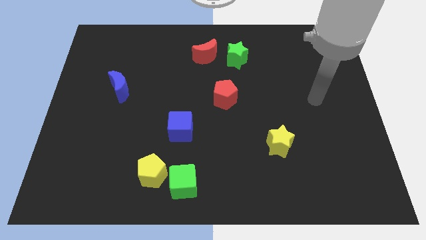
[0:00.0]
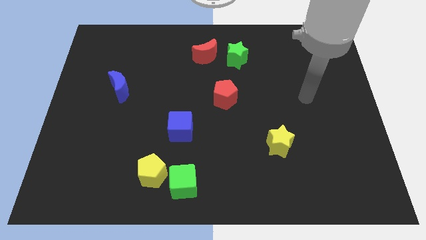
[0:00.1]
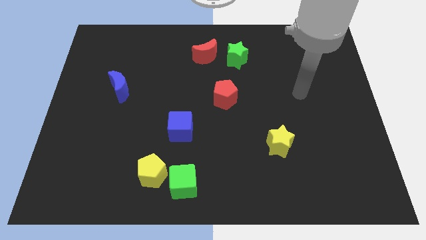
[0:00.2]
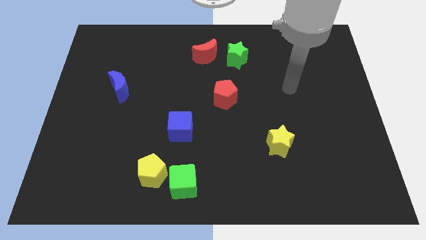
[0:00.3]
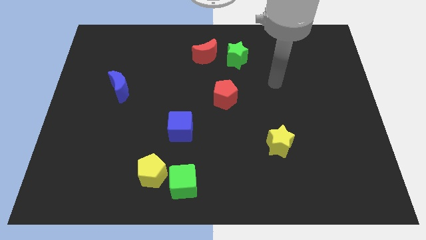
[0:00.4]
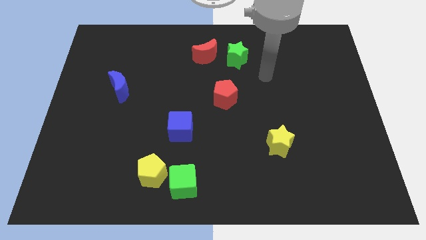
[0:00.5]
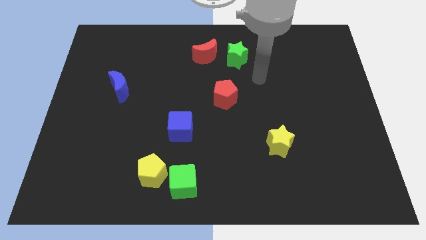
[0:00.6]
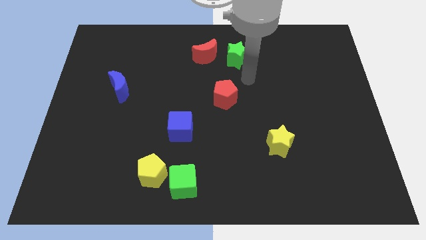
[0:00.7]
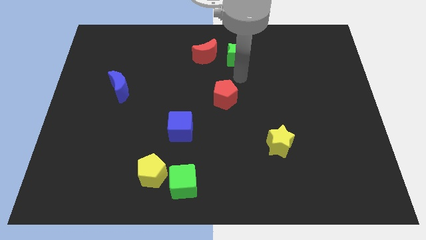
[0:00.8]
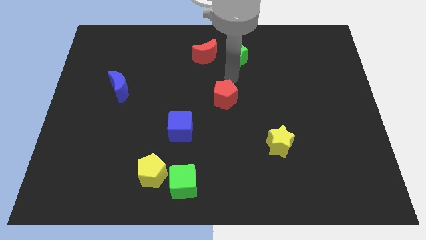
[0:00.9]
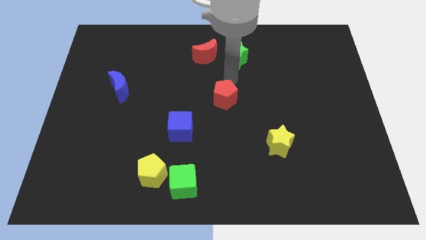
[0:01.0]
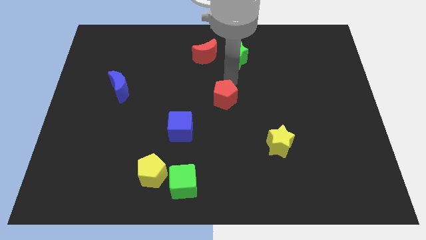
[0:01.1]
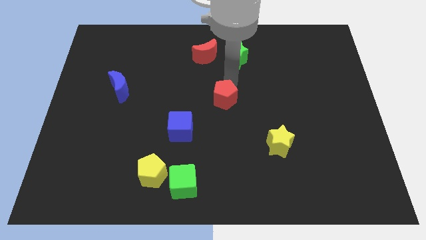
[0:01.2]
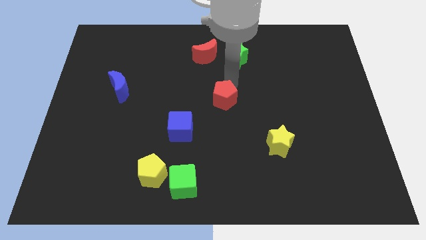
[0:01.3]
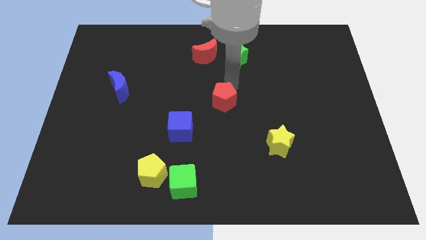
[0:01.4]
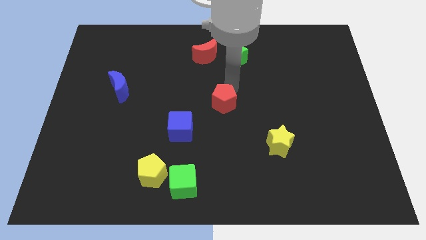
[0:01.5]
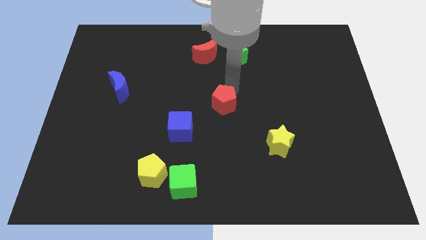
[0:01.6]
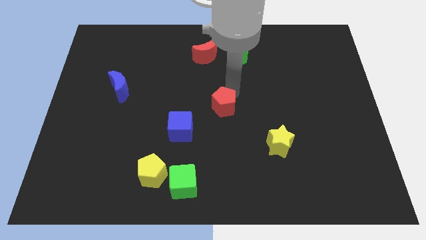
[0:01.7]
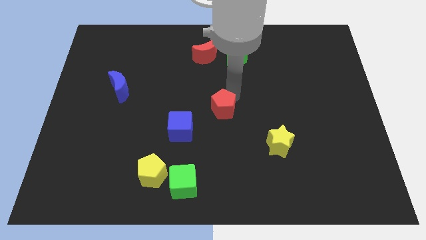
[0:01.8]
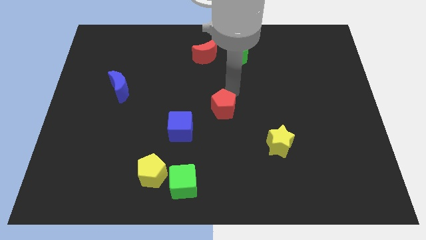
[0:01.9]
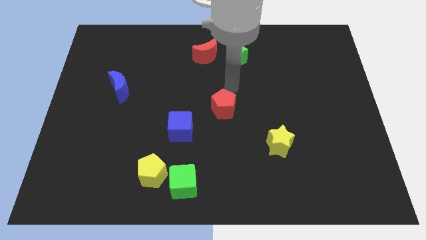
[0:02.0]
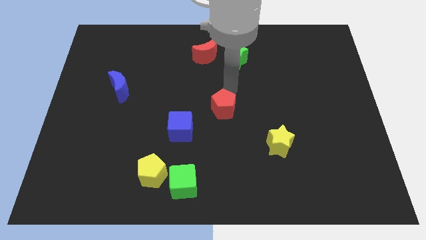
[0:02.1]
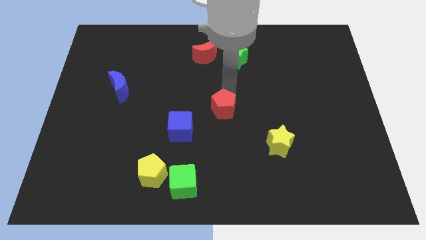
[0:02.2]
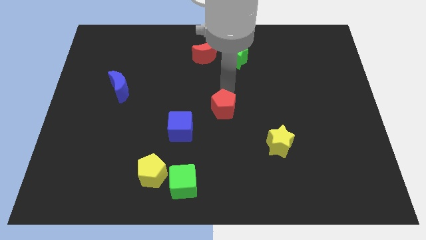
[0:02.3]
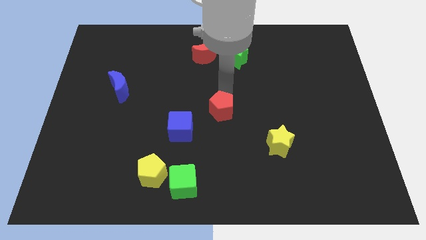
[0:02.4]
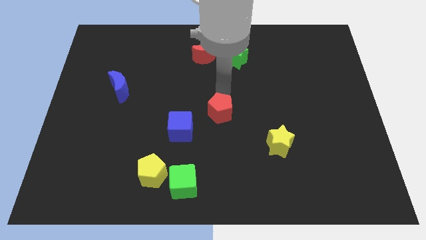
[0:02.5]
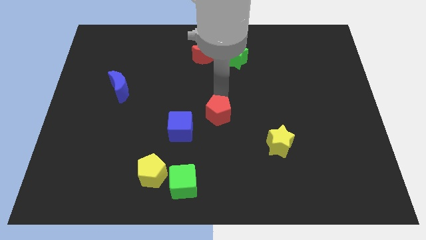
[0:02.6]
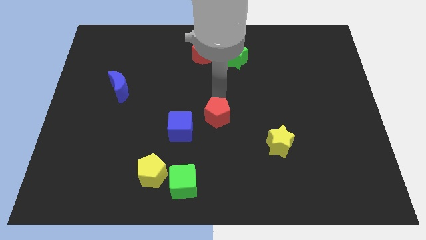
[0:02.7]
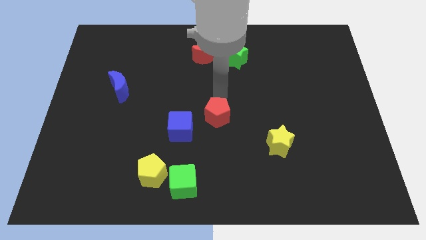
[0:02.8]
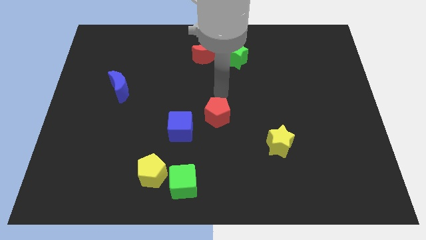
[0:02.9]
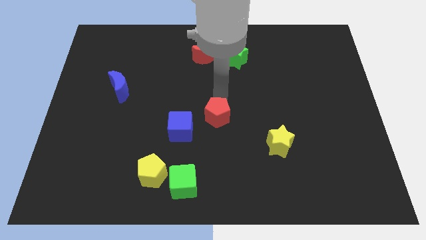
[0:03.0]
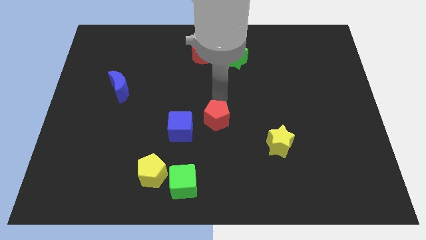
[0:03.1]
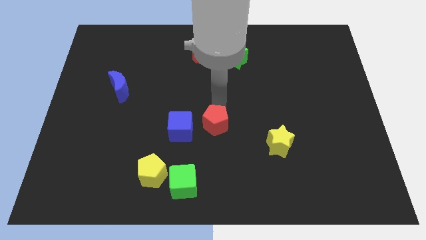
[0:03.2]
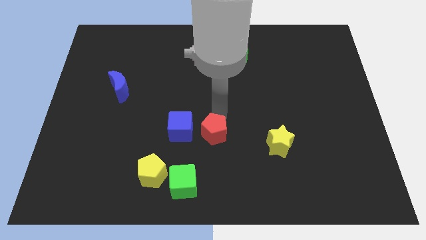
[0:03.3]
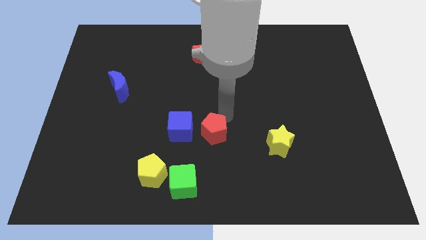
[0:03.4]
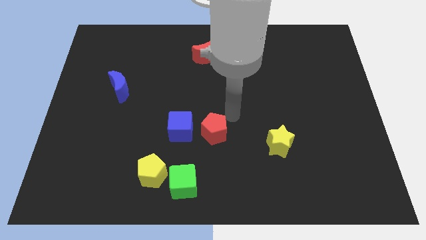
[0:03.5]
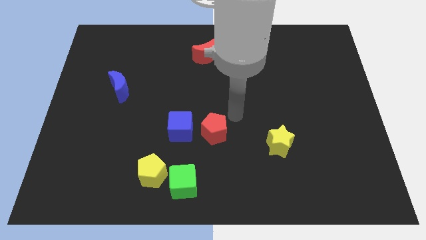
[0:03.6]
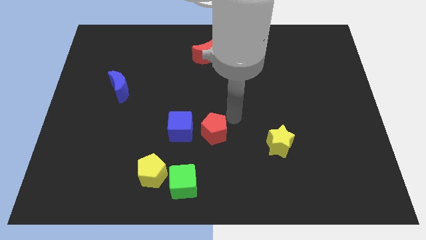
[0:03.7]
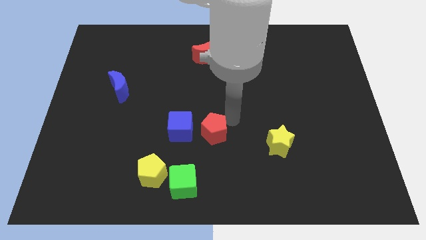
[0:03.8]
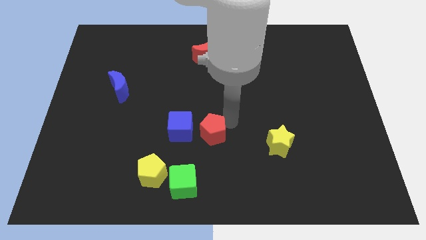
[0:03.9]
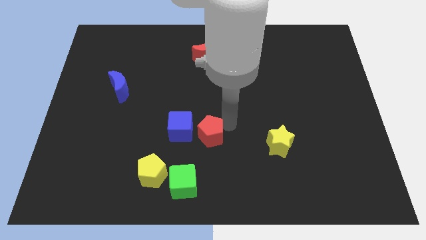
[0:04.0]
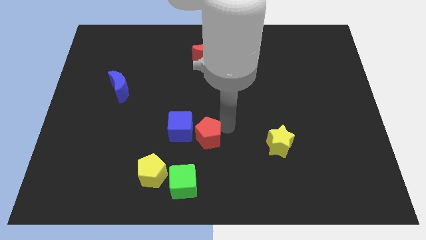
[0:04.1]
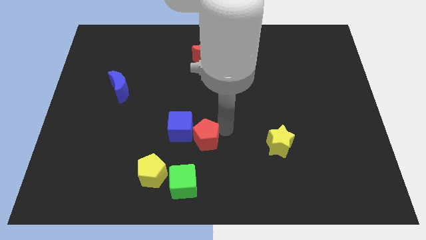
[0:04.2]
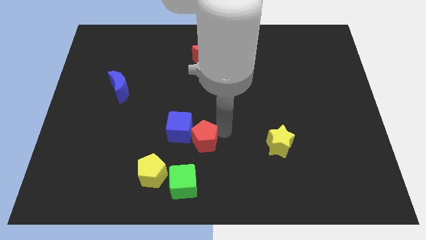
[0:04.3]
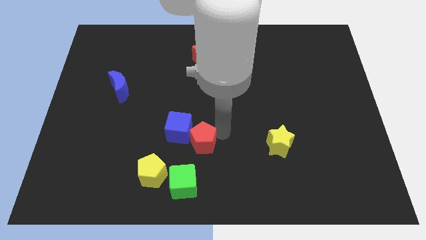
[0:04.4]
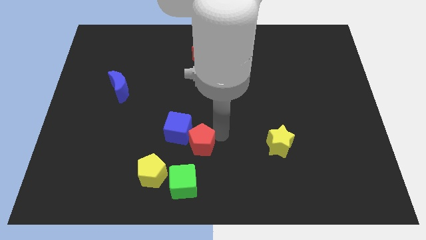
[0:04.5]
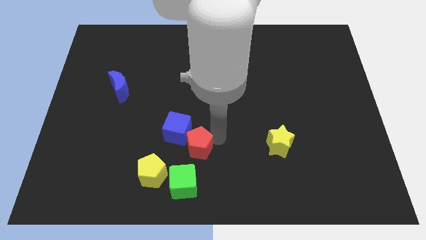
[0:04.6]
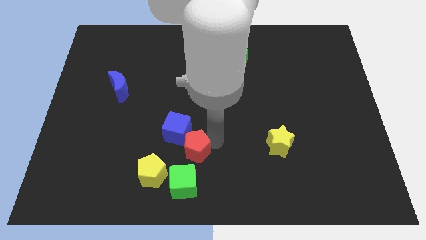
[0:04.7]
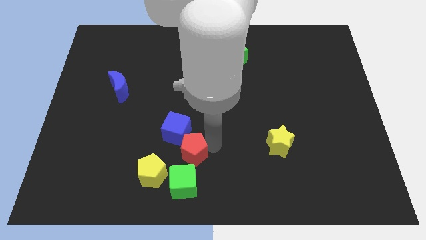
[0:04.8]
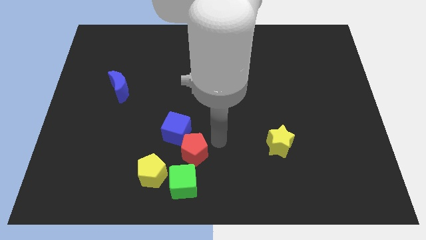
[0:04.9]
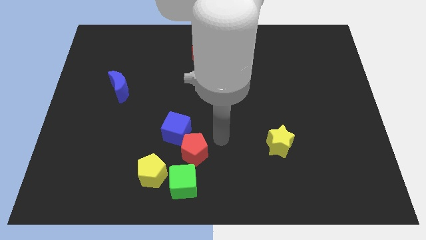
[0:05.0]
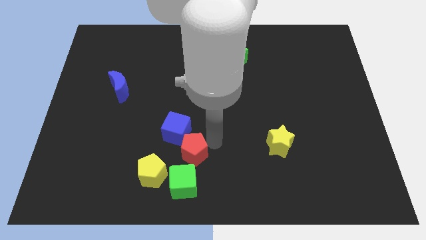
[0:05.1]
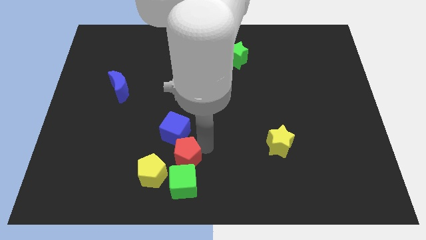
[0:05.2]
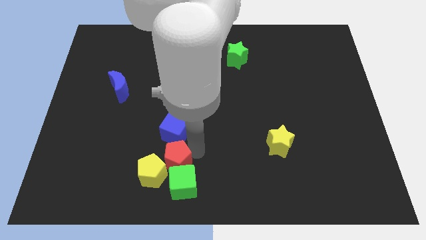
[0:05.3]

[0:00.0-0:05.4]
slide the red pentagon to the yellow pentagon

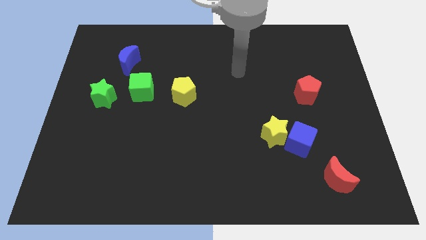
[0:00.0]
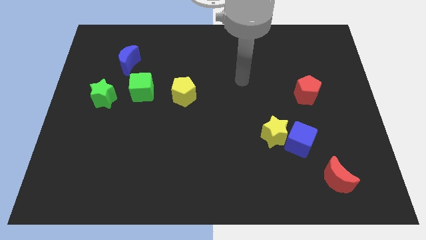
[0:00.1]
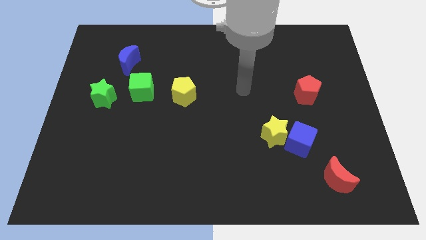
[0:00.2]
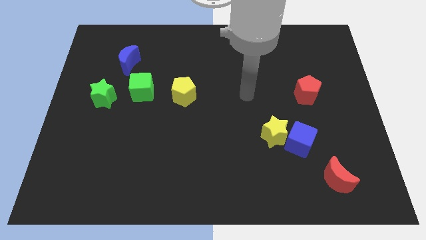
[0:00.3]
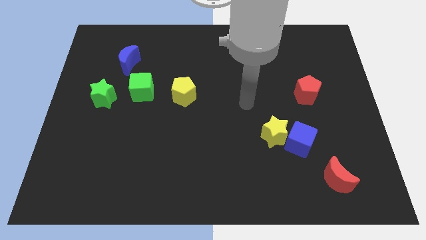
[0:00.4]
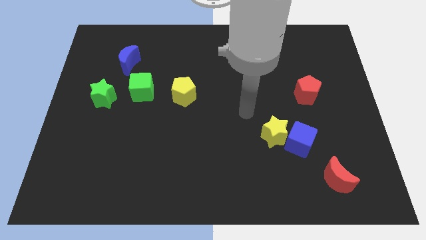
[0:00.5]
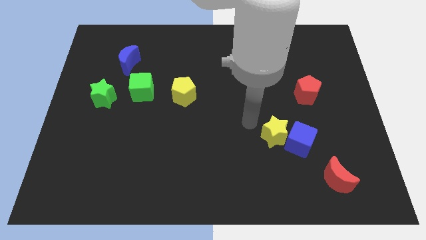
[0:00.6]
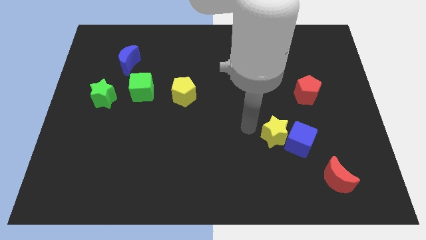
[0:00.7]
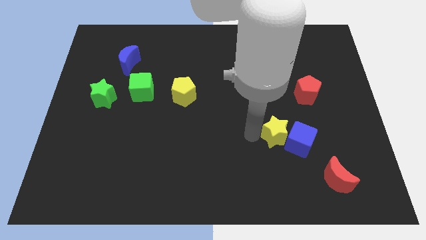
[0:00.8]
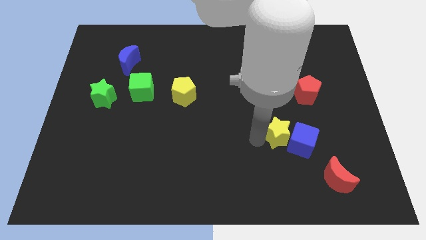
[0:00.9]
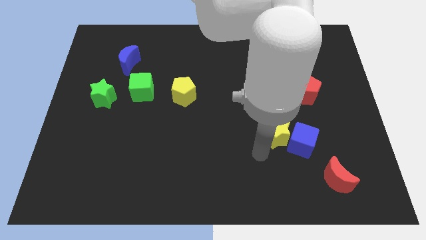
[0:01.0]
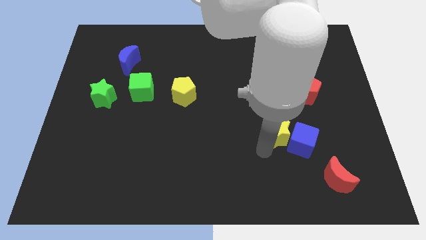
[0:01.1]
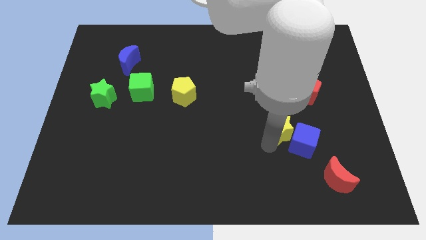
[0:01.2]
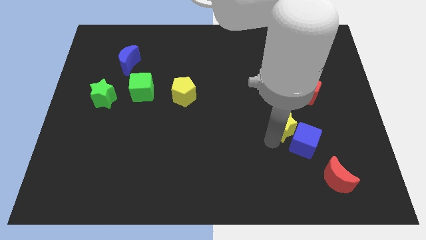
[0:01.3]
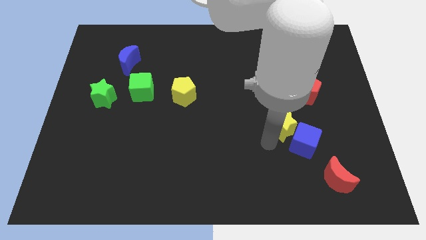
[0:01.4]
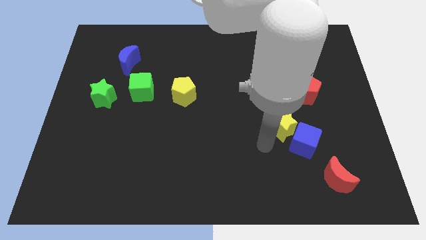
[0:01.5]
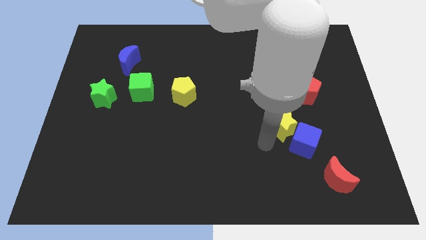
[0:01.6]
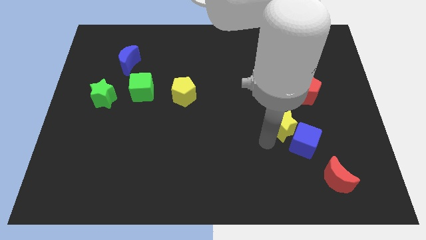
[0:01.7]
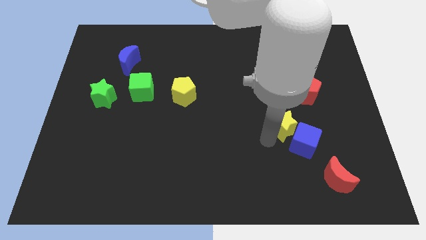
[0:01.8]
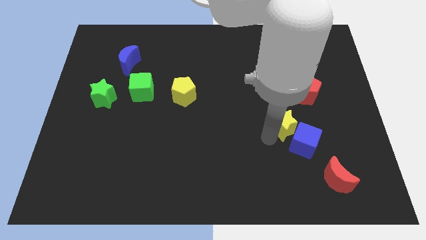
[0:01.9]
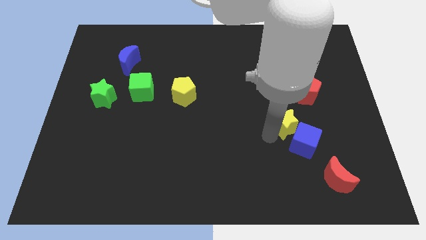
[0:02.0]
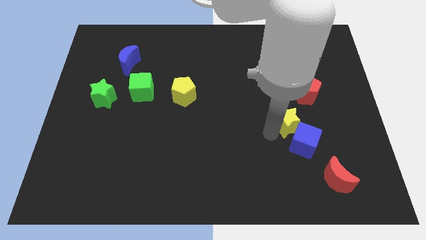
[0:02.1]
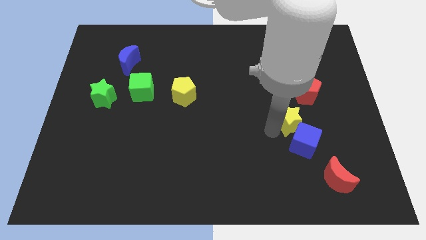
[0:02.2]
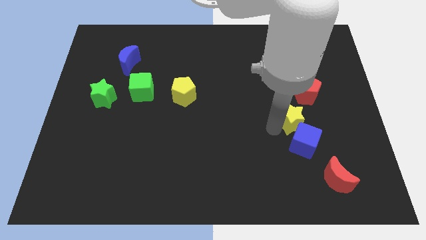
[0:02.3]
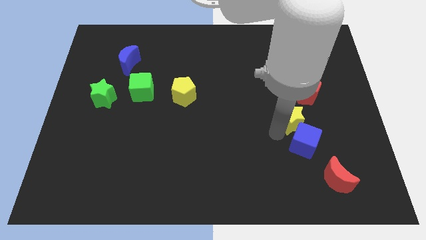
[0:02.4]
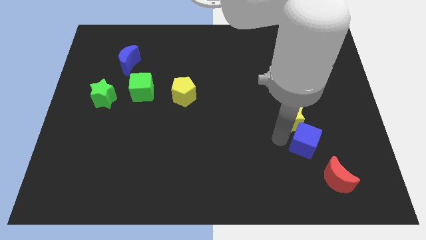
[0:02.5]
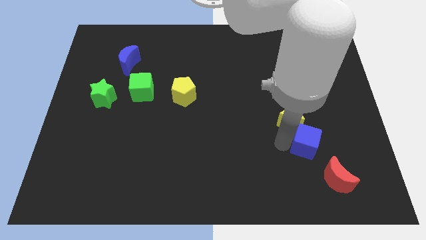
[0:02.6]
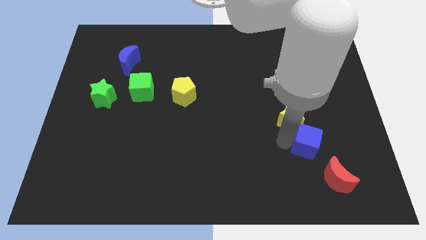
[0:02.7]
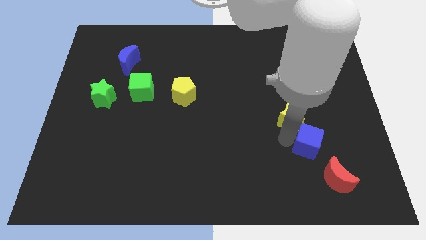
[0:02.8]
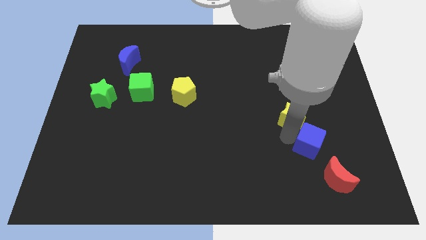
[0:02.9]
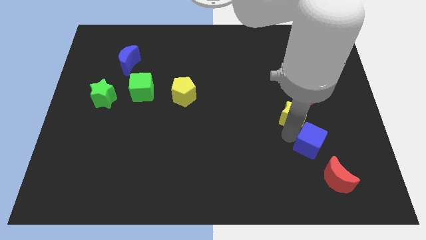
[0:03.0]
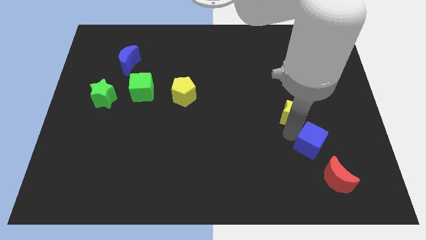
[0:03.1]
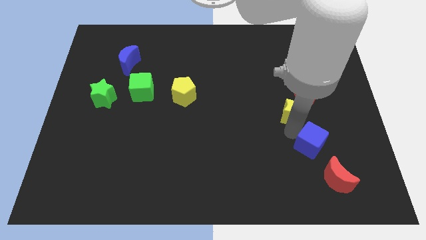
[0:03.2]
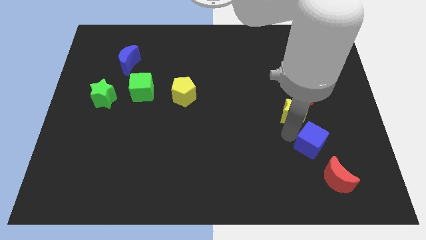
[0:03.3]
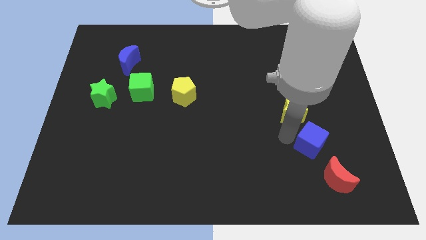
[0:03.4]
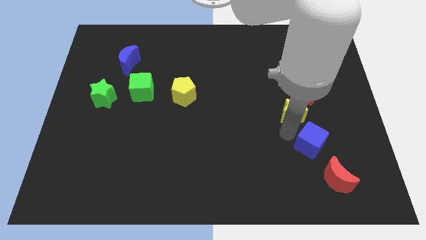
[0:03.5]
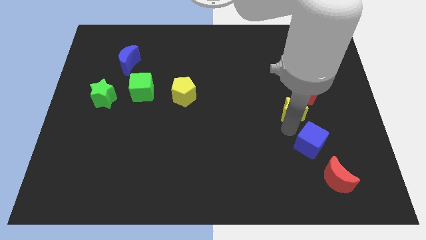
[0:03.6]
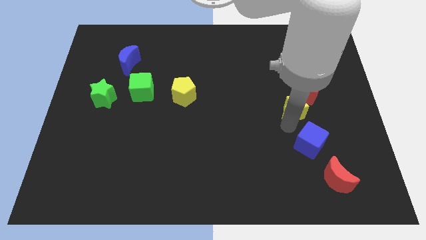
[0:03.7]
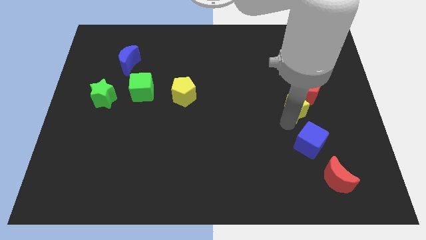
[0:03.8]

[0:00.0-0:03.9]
slide the yellow star towards the red pentagon
